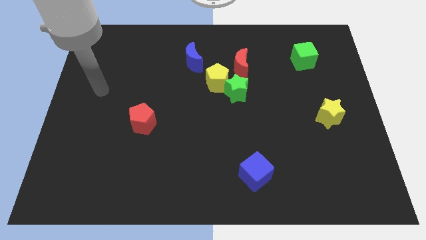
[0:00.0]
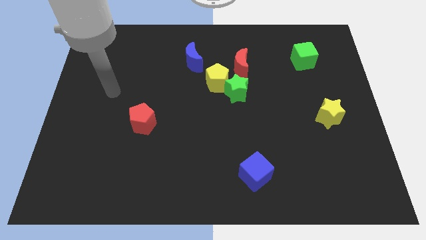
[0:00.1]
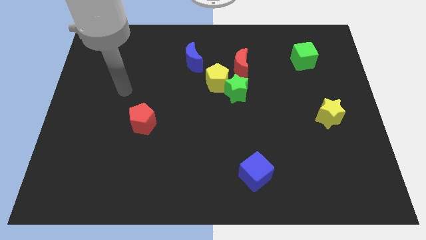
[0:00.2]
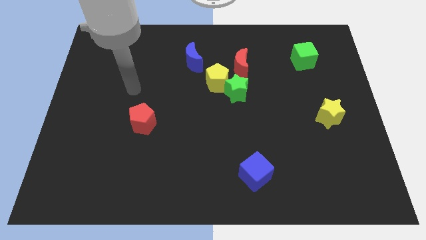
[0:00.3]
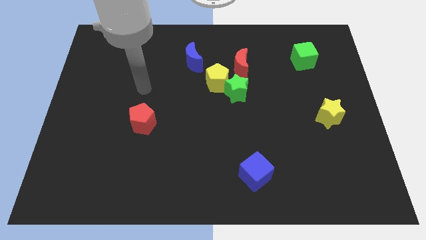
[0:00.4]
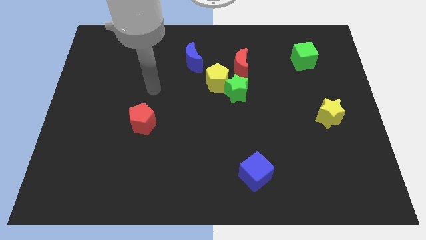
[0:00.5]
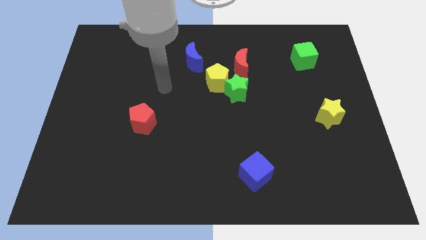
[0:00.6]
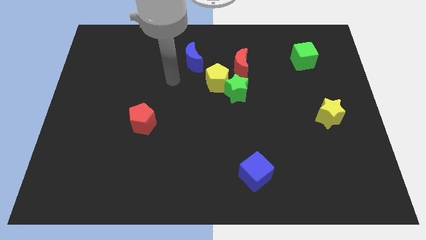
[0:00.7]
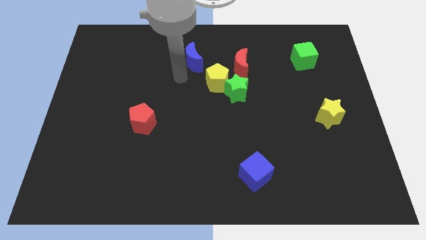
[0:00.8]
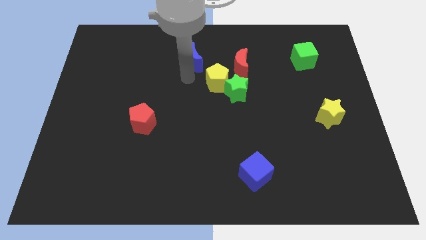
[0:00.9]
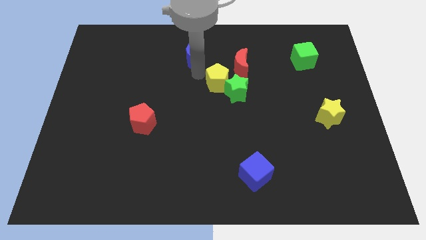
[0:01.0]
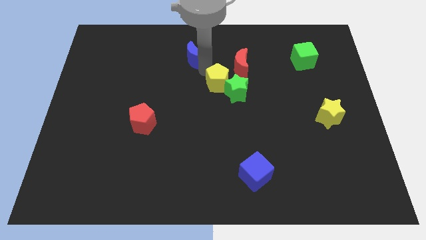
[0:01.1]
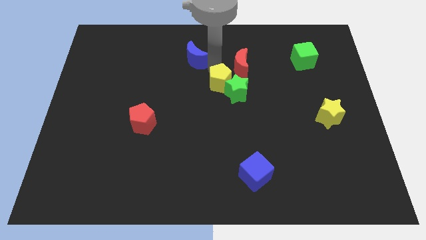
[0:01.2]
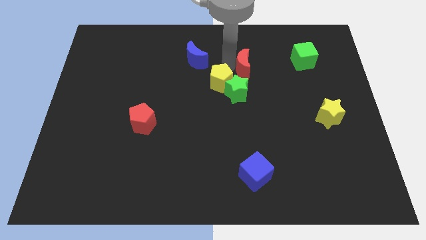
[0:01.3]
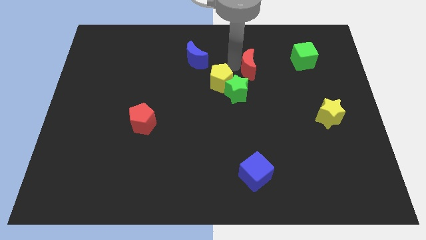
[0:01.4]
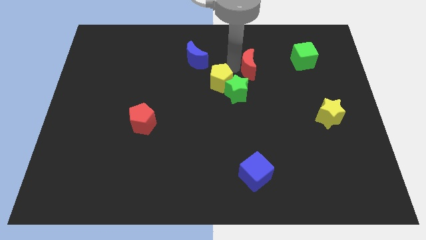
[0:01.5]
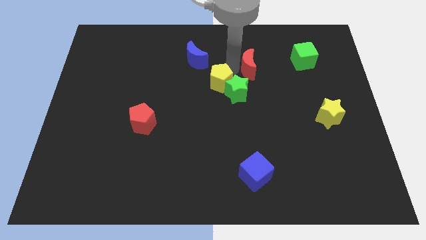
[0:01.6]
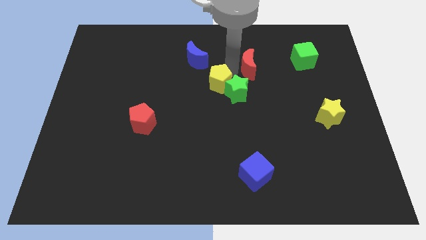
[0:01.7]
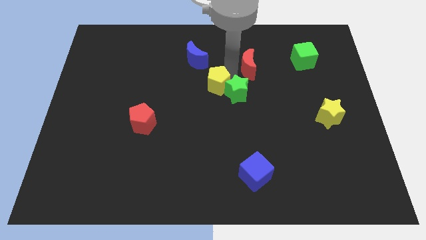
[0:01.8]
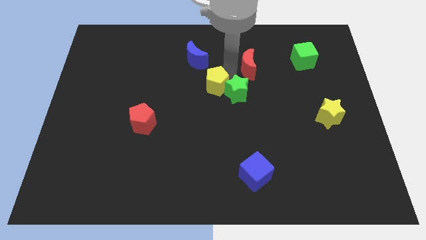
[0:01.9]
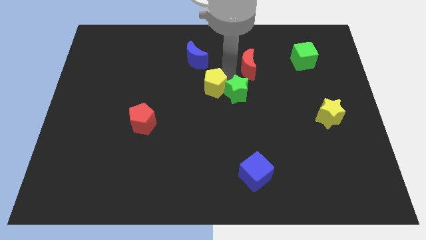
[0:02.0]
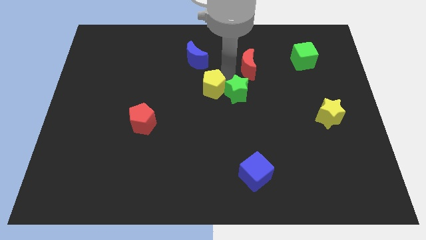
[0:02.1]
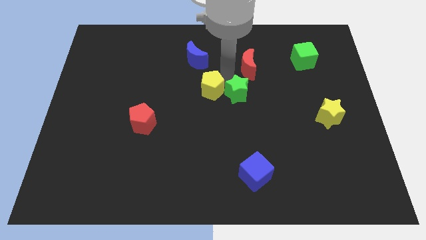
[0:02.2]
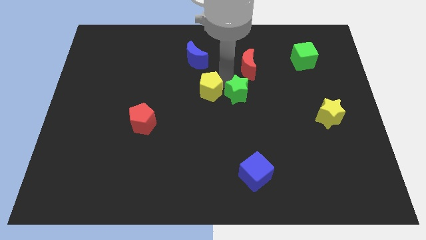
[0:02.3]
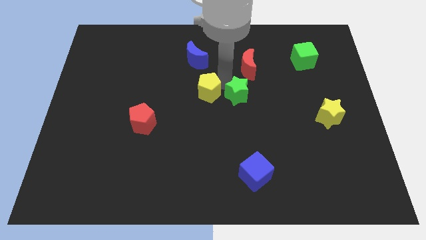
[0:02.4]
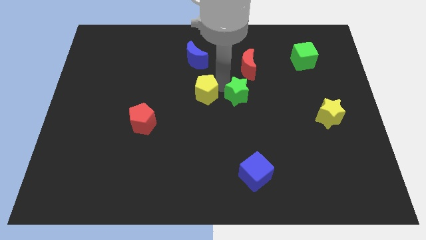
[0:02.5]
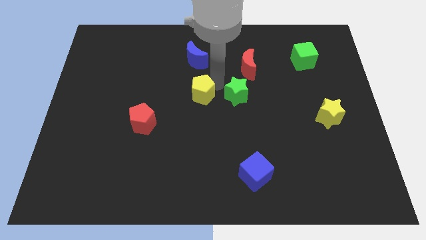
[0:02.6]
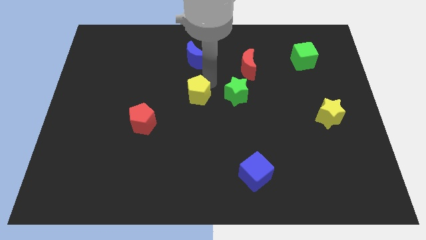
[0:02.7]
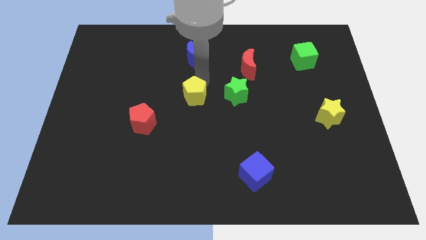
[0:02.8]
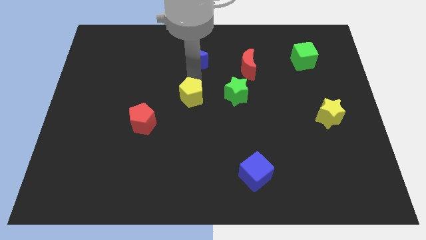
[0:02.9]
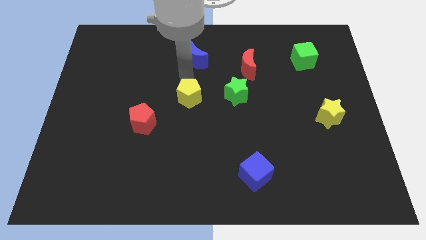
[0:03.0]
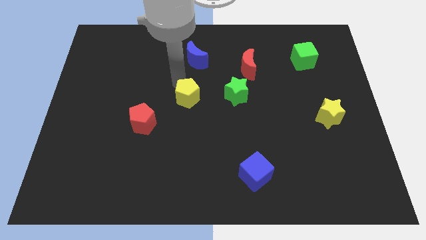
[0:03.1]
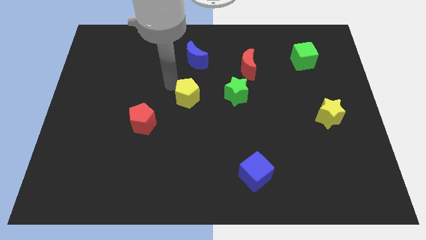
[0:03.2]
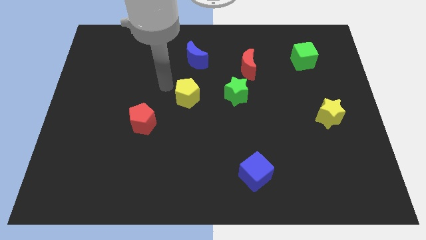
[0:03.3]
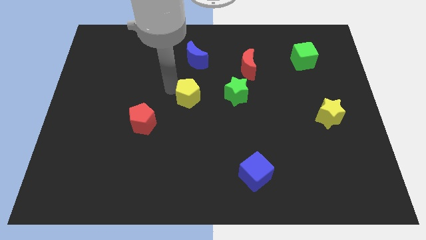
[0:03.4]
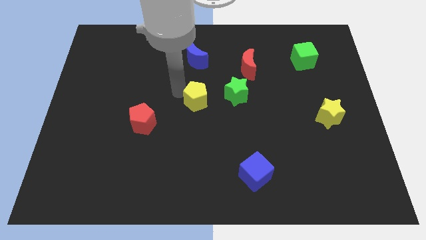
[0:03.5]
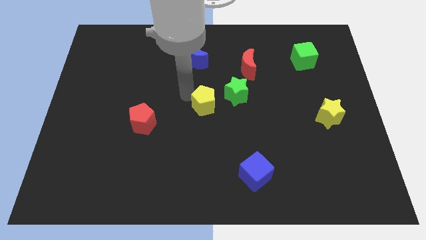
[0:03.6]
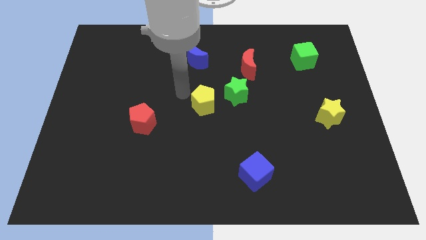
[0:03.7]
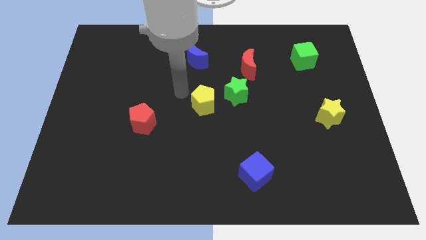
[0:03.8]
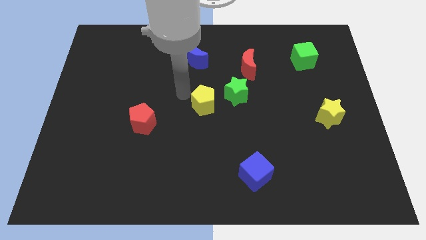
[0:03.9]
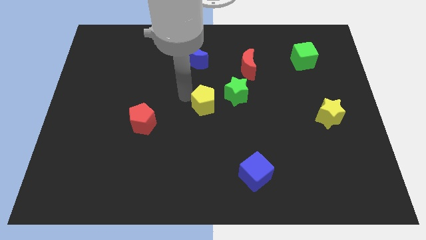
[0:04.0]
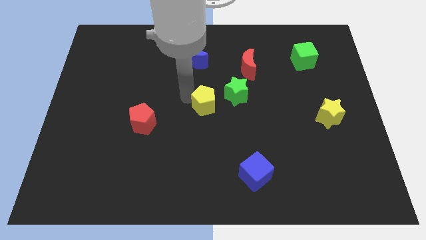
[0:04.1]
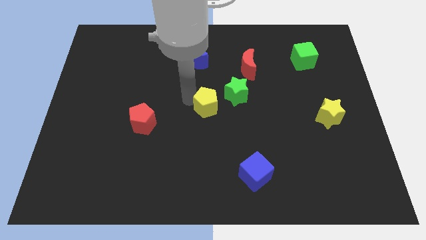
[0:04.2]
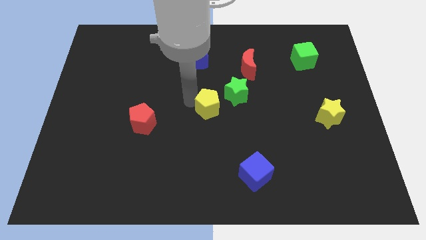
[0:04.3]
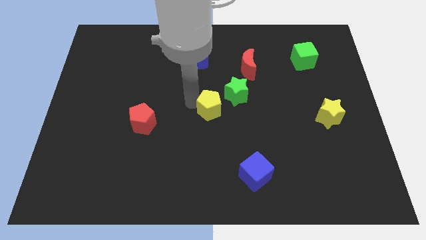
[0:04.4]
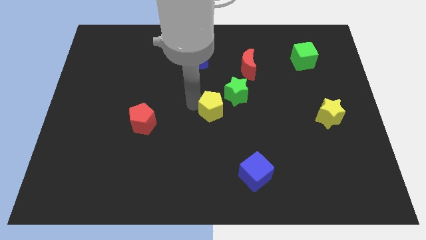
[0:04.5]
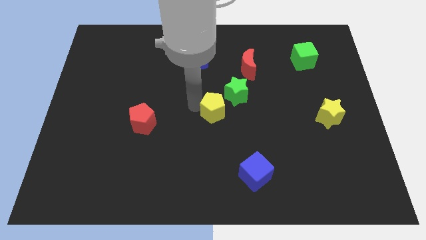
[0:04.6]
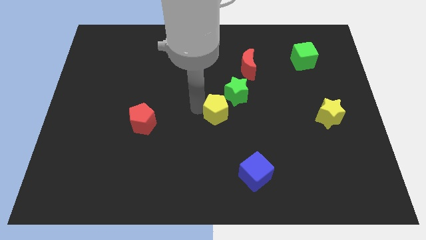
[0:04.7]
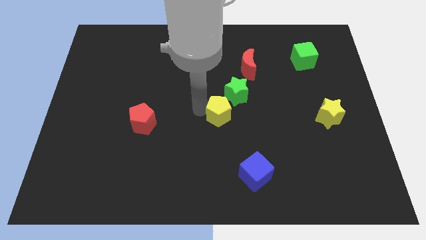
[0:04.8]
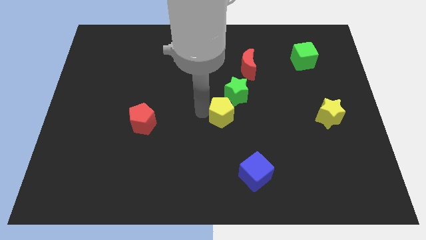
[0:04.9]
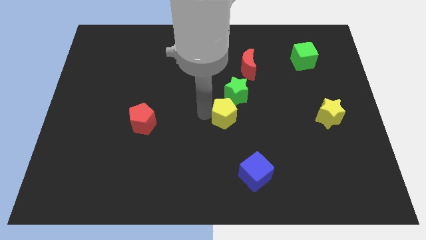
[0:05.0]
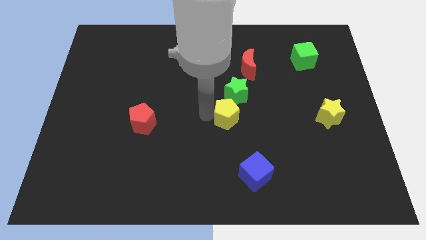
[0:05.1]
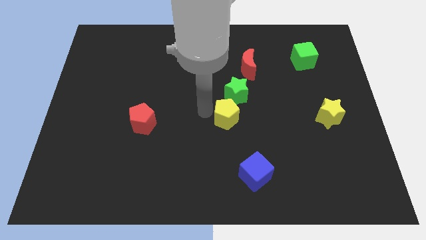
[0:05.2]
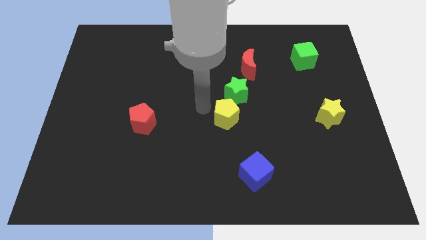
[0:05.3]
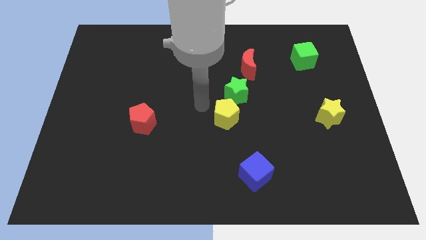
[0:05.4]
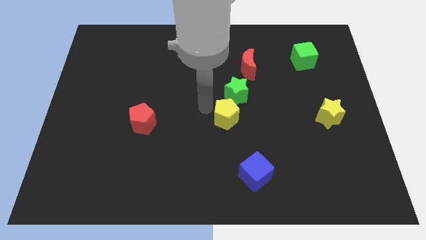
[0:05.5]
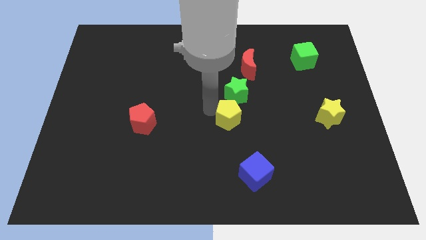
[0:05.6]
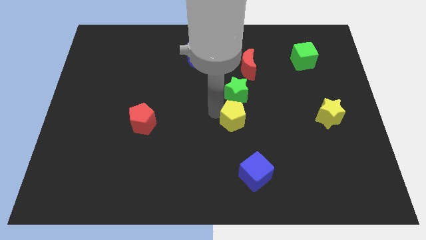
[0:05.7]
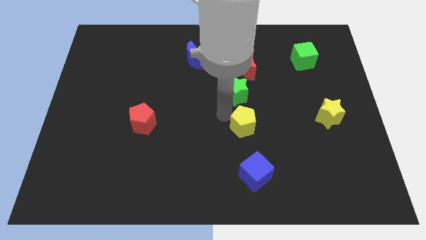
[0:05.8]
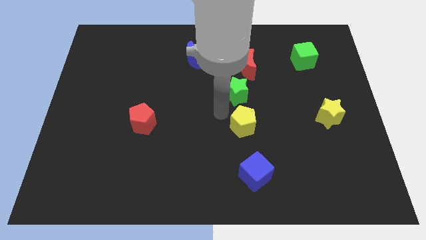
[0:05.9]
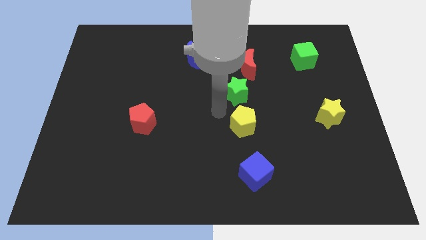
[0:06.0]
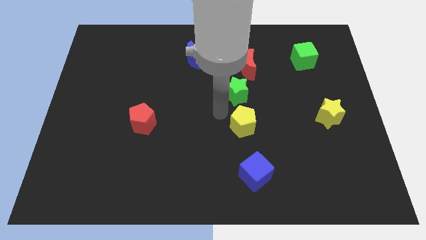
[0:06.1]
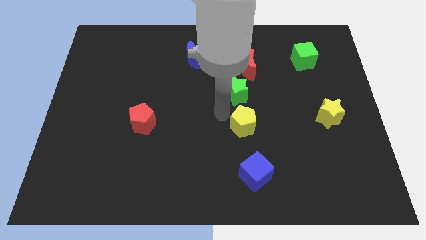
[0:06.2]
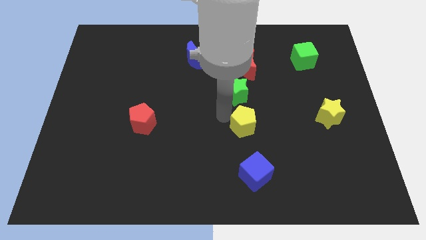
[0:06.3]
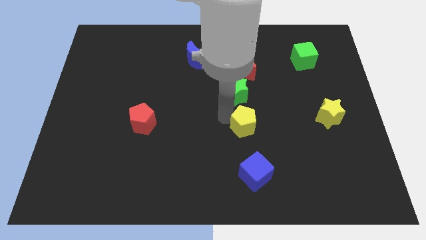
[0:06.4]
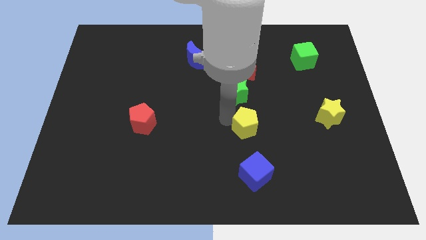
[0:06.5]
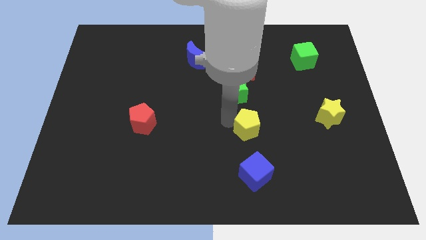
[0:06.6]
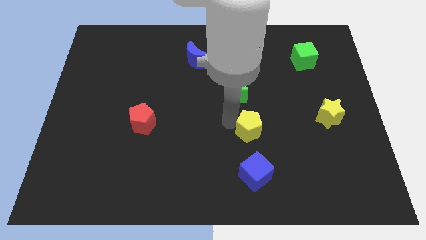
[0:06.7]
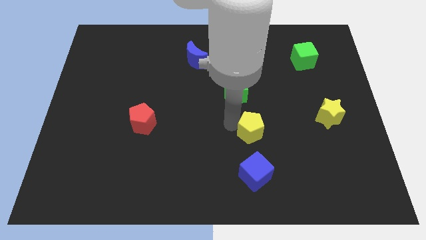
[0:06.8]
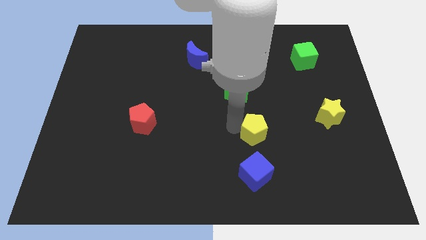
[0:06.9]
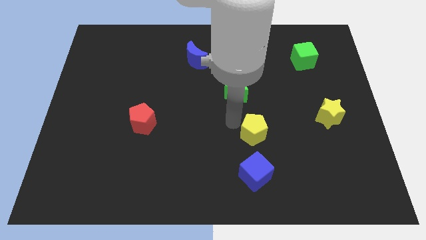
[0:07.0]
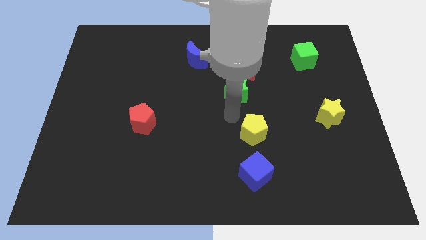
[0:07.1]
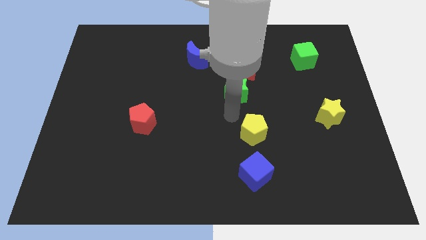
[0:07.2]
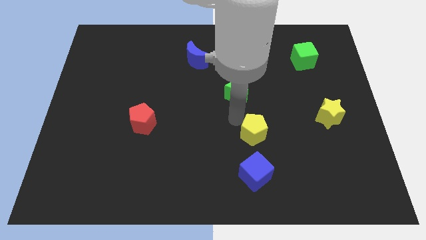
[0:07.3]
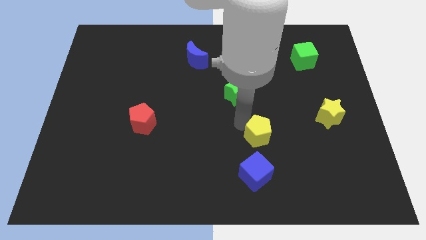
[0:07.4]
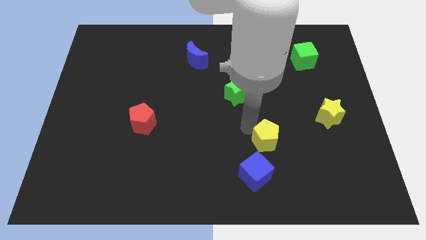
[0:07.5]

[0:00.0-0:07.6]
push the yellow pentagon to the top right of the blue cube

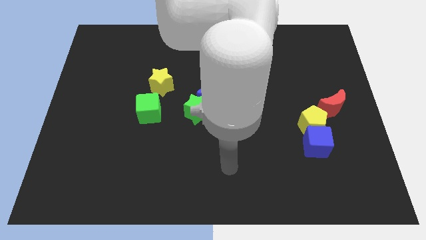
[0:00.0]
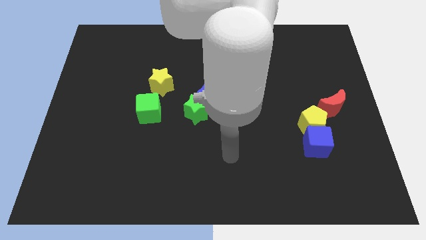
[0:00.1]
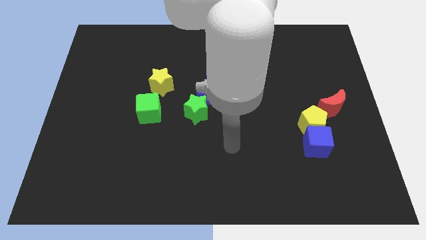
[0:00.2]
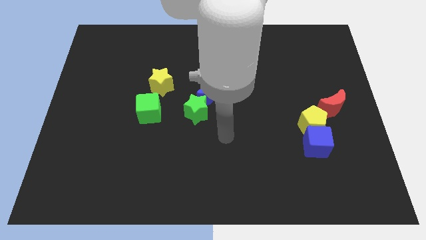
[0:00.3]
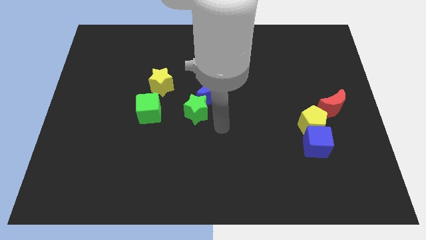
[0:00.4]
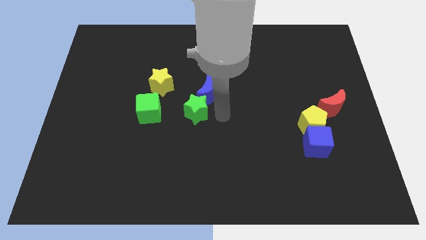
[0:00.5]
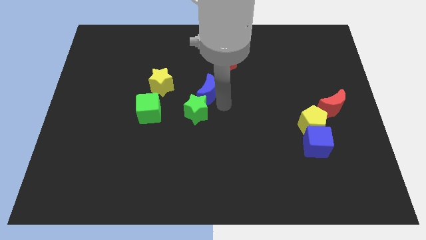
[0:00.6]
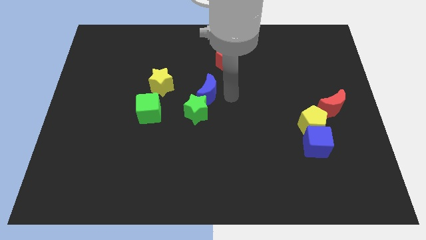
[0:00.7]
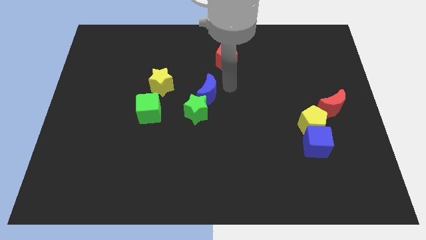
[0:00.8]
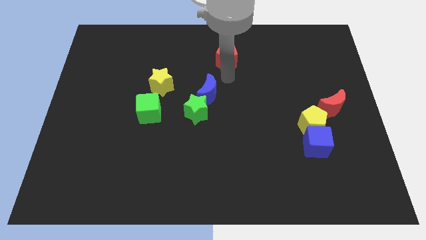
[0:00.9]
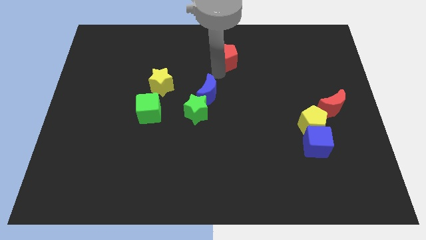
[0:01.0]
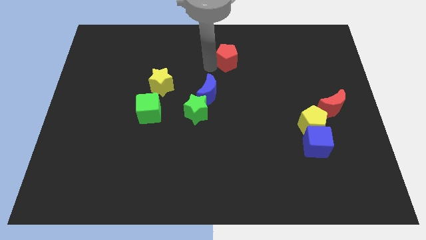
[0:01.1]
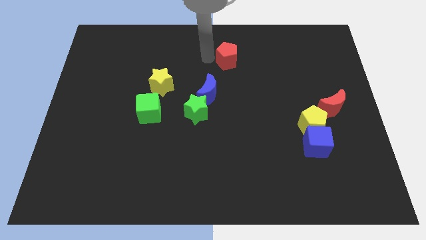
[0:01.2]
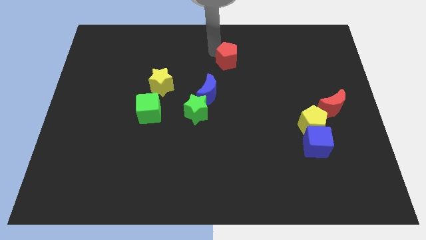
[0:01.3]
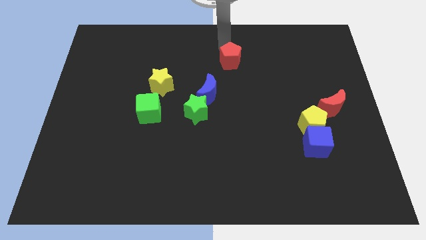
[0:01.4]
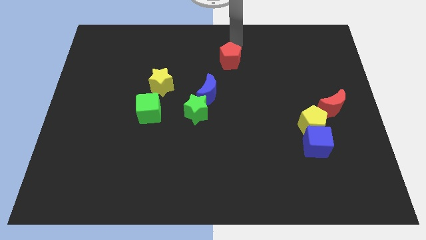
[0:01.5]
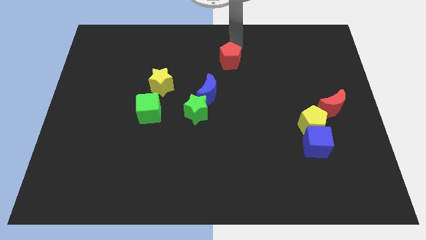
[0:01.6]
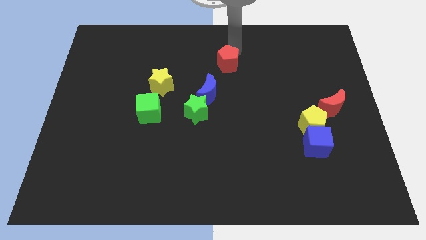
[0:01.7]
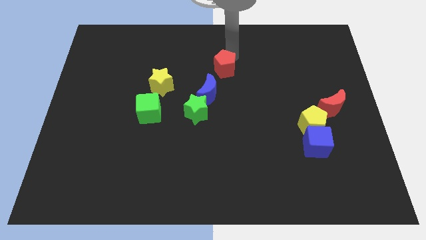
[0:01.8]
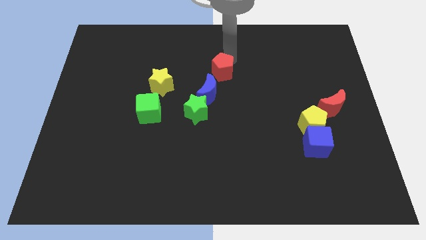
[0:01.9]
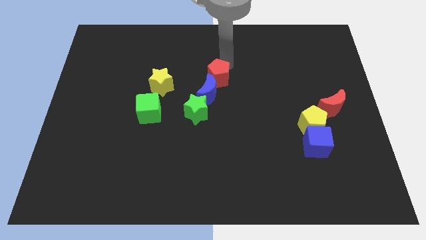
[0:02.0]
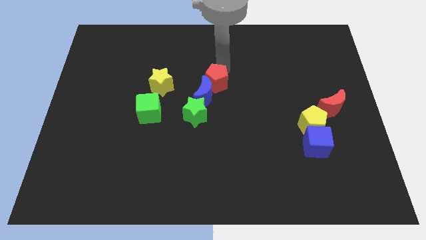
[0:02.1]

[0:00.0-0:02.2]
push the red pentagon to the top right of the green star
